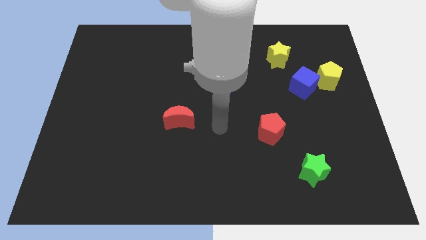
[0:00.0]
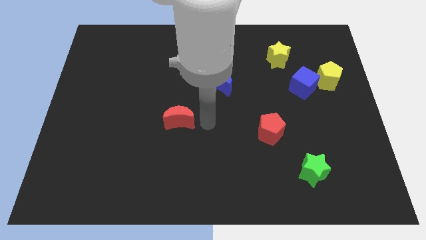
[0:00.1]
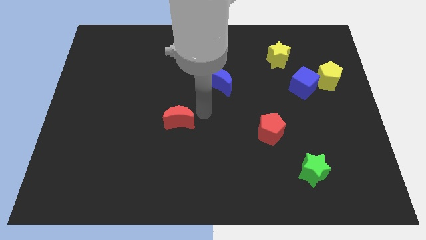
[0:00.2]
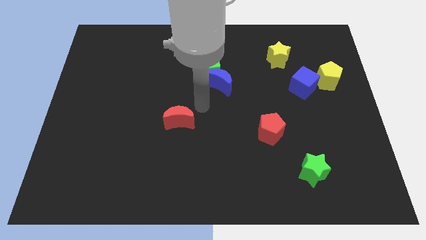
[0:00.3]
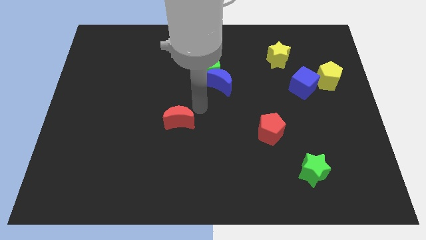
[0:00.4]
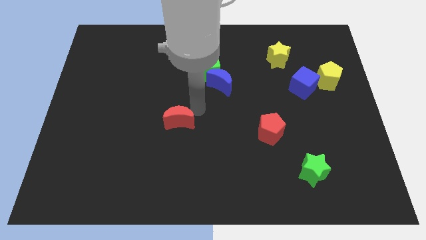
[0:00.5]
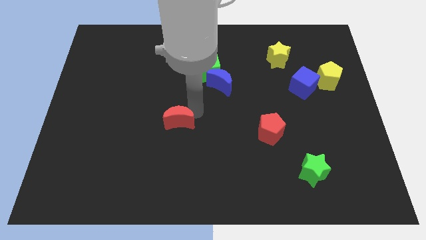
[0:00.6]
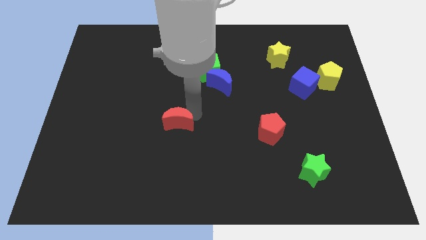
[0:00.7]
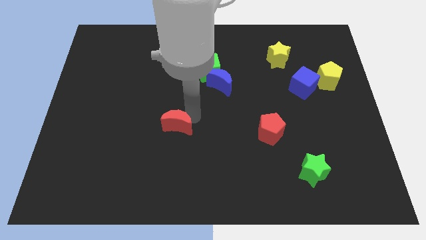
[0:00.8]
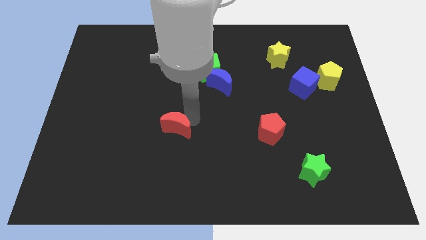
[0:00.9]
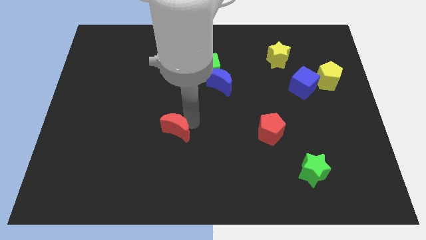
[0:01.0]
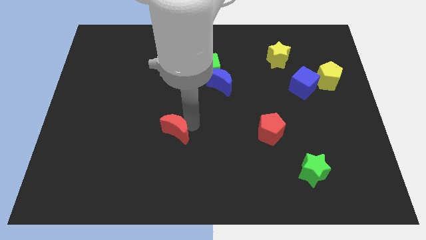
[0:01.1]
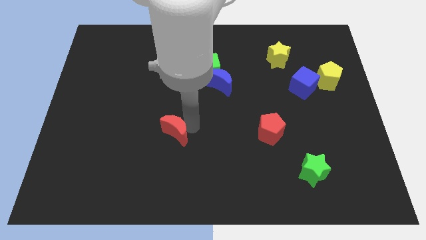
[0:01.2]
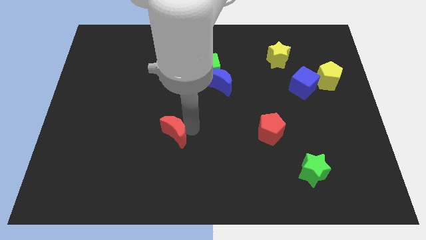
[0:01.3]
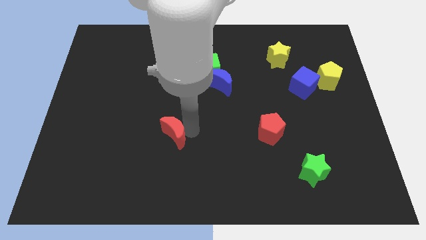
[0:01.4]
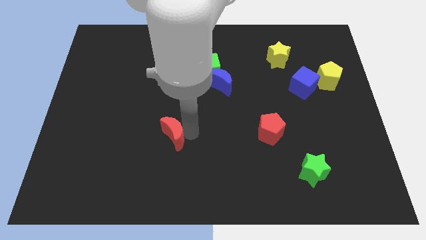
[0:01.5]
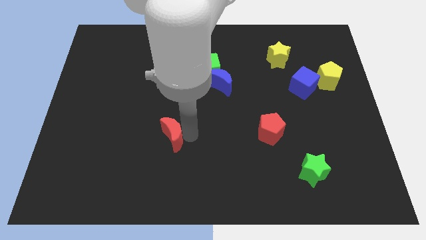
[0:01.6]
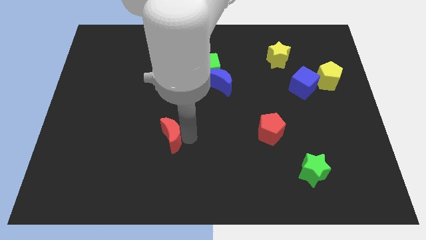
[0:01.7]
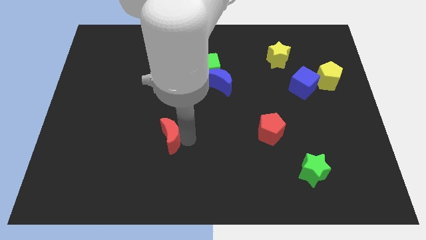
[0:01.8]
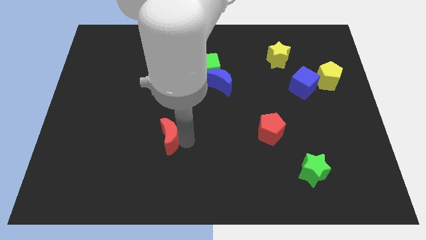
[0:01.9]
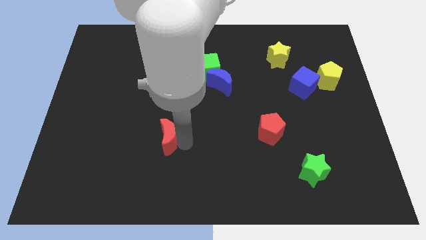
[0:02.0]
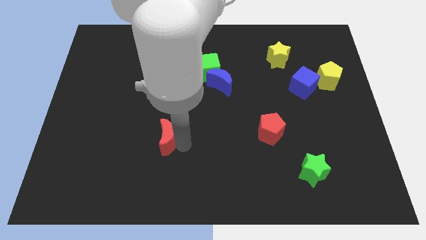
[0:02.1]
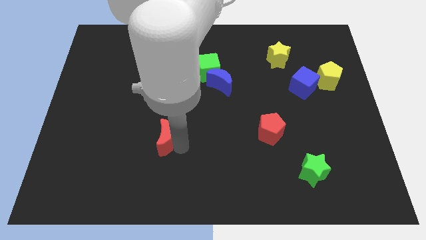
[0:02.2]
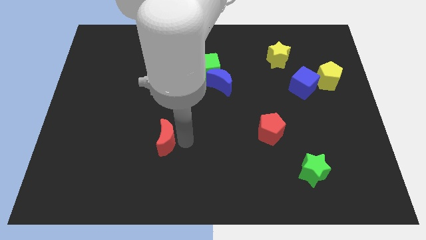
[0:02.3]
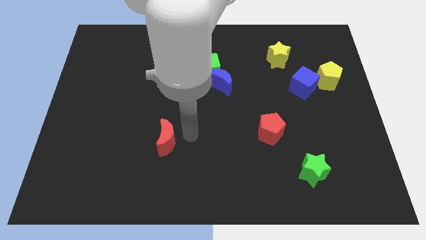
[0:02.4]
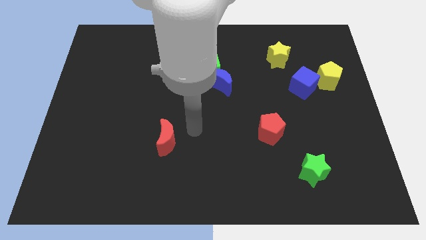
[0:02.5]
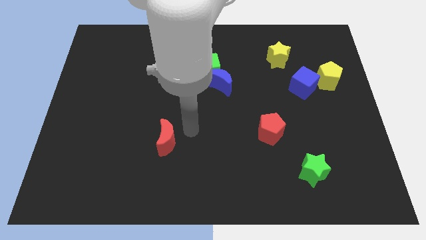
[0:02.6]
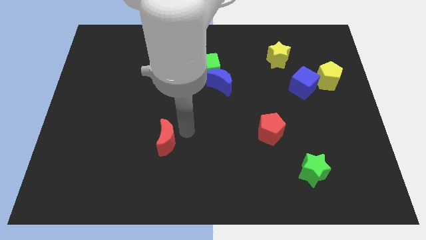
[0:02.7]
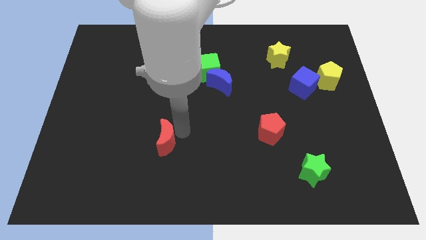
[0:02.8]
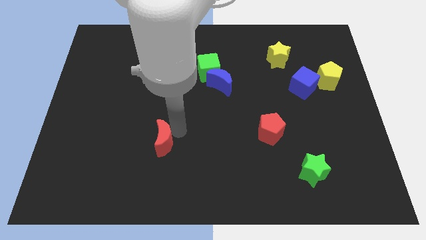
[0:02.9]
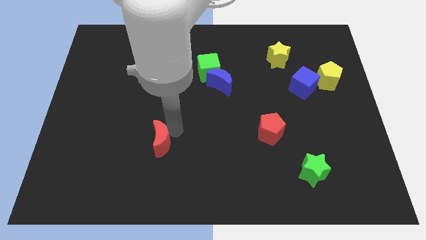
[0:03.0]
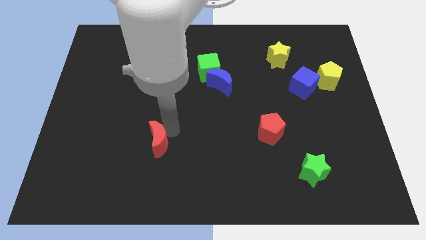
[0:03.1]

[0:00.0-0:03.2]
slide the red moon somewhat down and then left

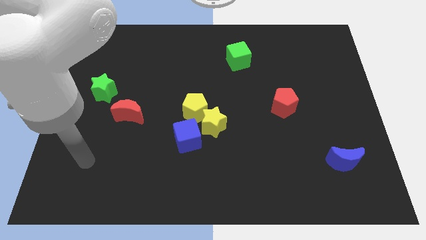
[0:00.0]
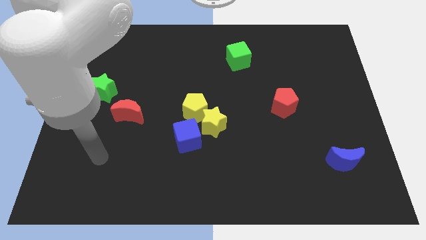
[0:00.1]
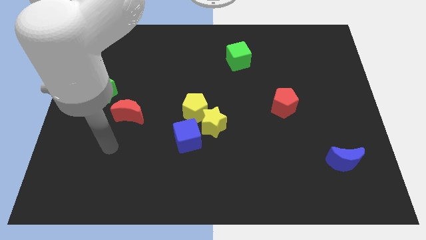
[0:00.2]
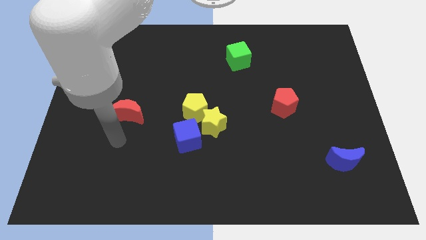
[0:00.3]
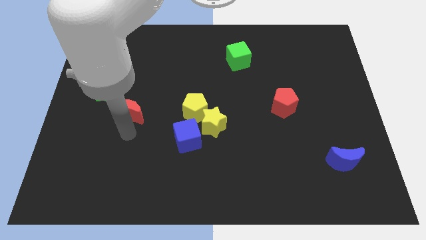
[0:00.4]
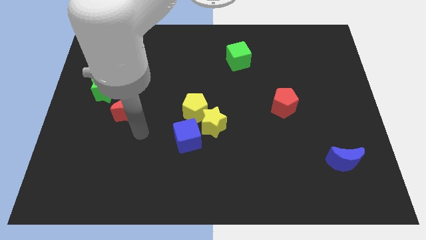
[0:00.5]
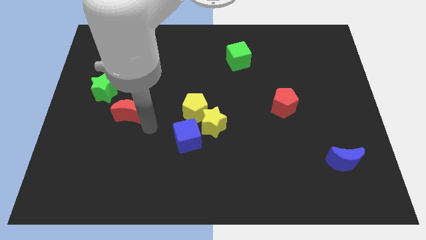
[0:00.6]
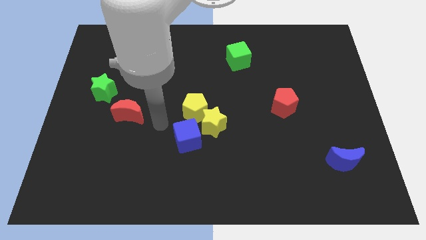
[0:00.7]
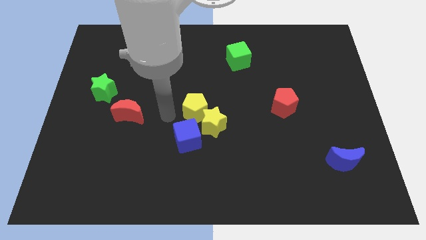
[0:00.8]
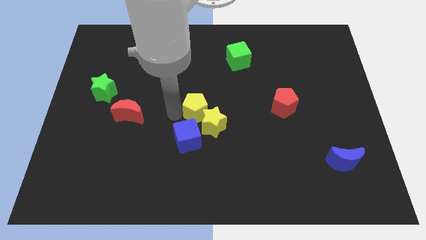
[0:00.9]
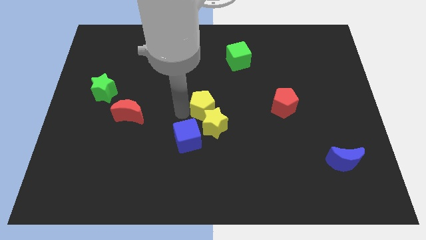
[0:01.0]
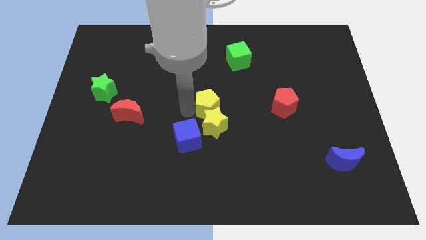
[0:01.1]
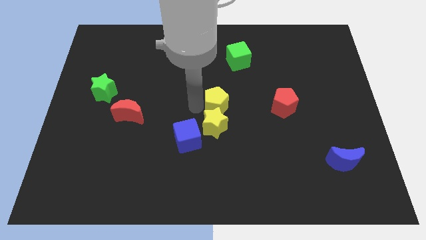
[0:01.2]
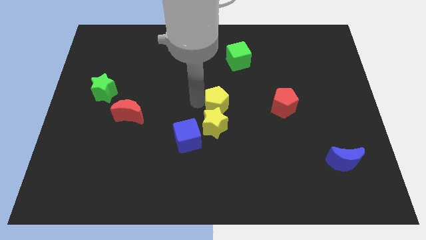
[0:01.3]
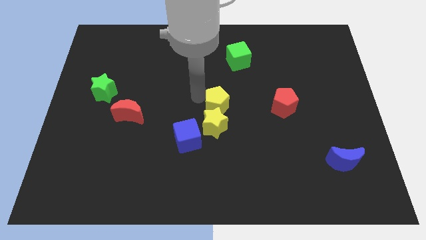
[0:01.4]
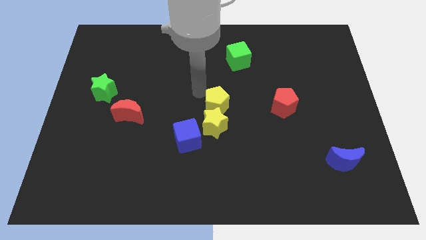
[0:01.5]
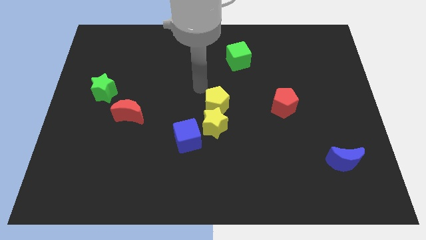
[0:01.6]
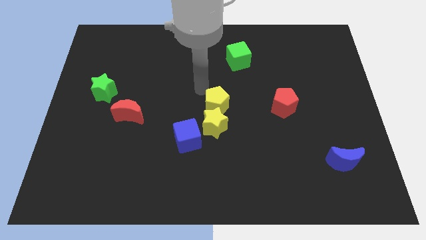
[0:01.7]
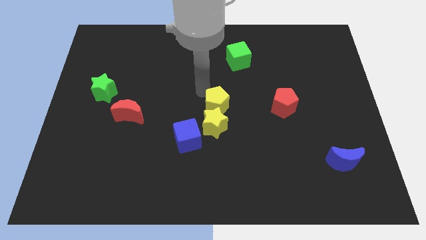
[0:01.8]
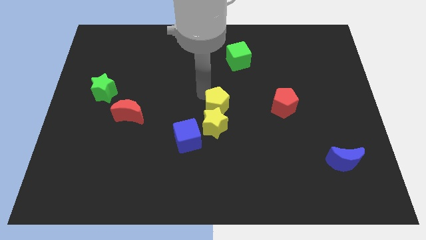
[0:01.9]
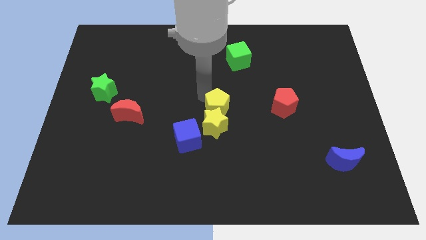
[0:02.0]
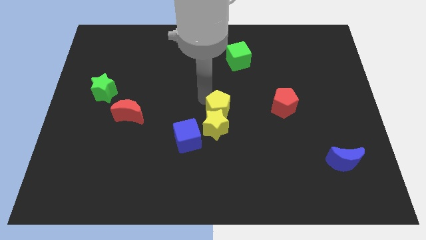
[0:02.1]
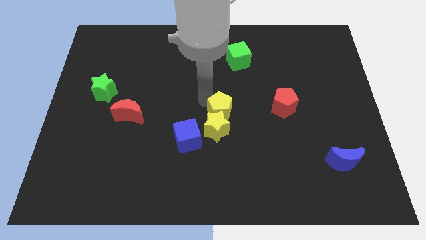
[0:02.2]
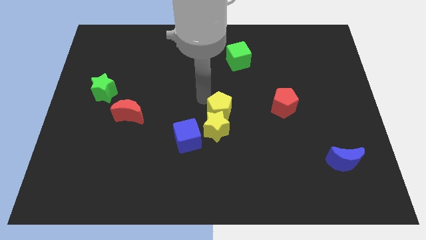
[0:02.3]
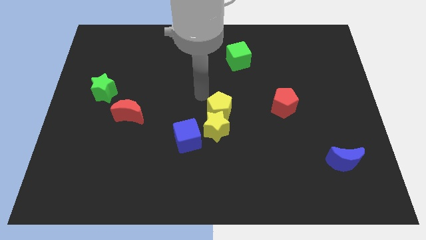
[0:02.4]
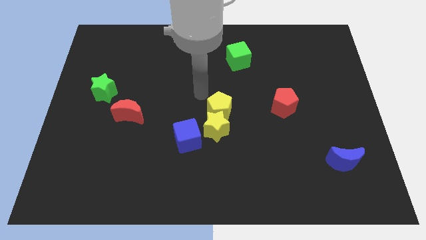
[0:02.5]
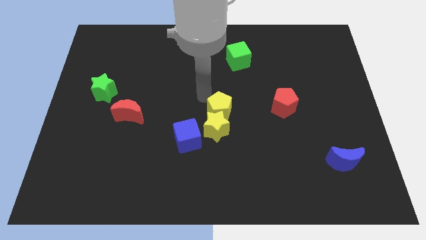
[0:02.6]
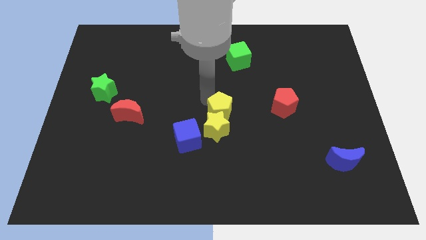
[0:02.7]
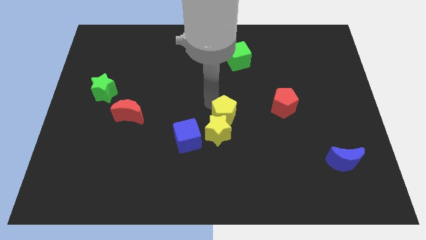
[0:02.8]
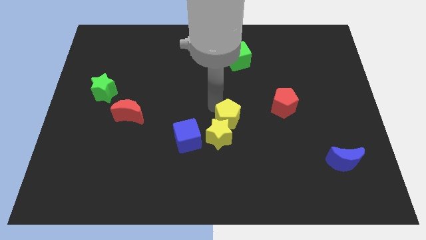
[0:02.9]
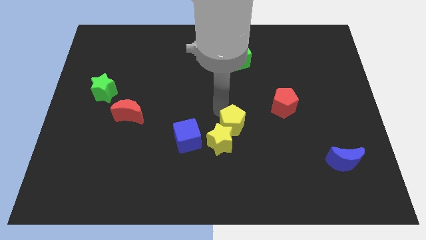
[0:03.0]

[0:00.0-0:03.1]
slide the yellow pentagon a little down and to the right

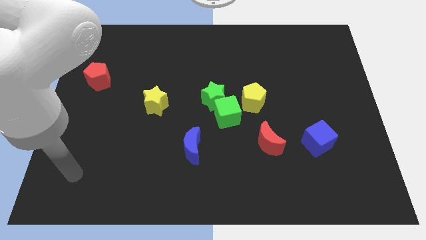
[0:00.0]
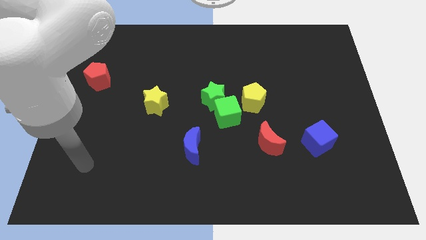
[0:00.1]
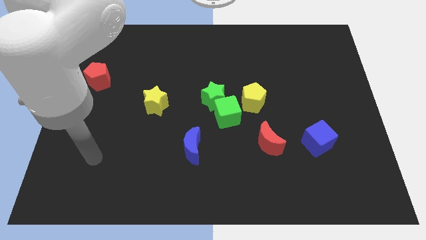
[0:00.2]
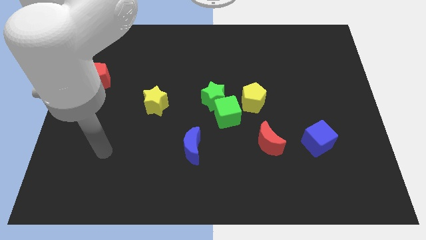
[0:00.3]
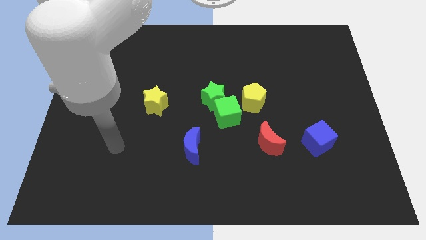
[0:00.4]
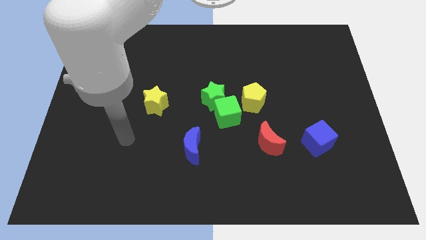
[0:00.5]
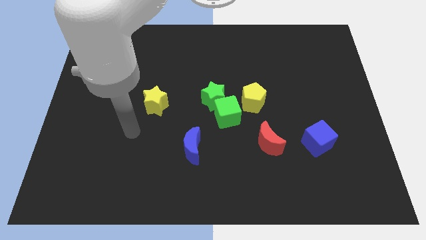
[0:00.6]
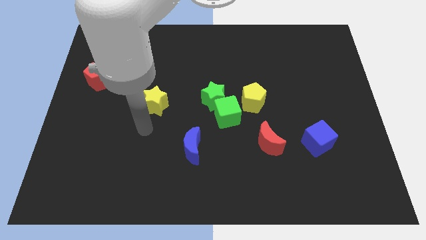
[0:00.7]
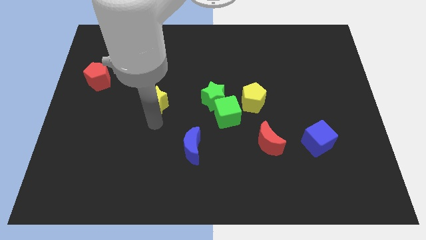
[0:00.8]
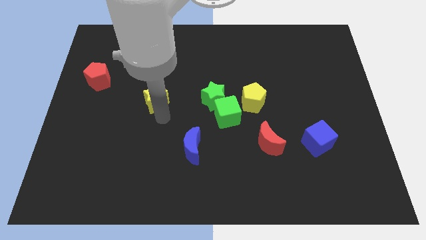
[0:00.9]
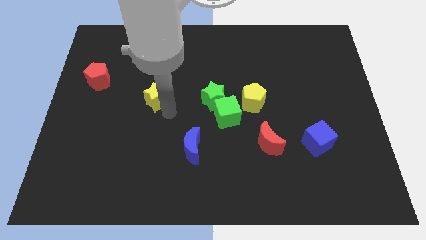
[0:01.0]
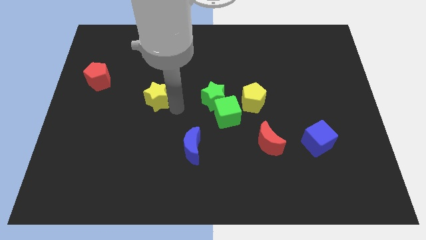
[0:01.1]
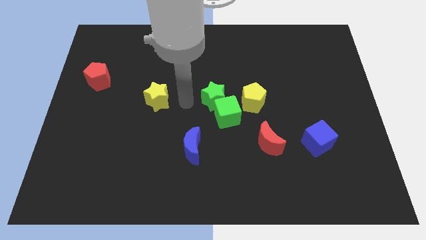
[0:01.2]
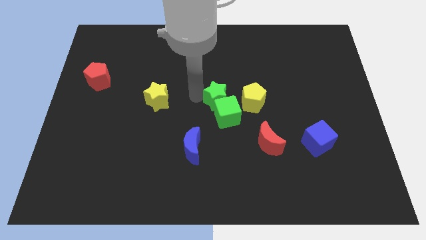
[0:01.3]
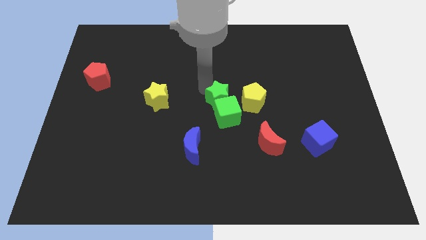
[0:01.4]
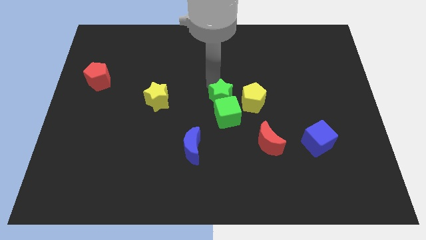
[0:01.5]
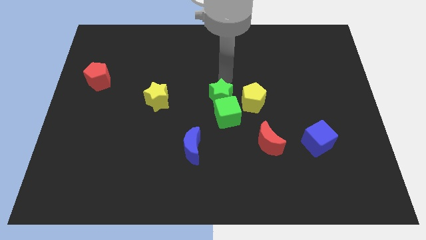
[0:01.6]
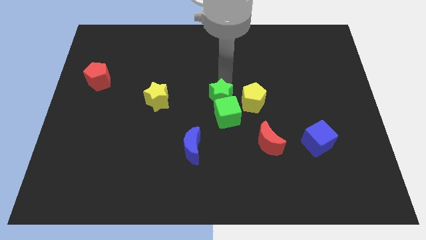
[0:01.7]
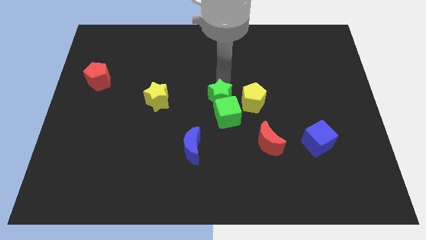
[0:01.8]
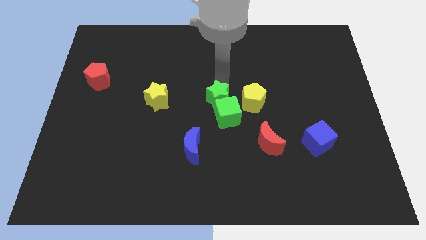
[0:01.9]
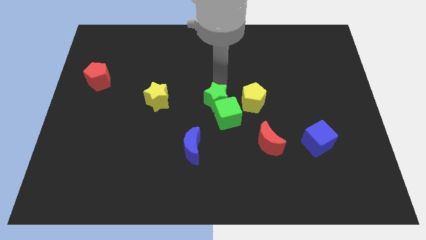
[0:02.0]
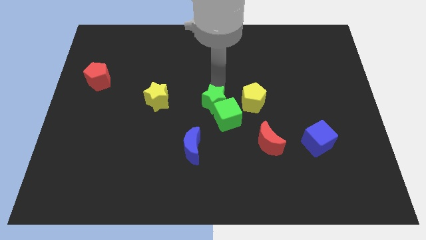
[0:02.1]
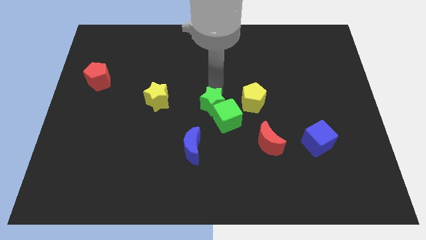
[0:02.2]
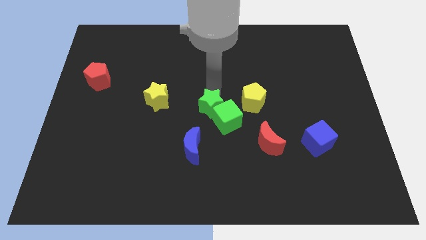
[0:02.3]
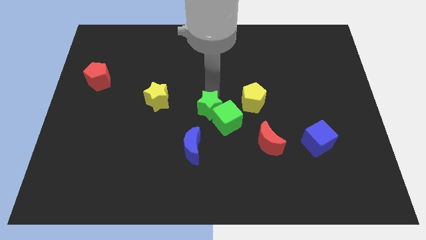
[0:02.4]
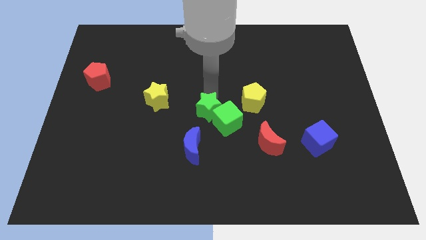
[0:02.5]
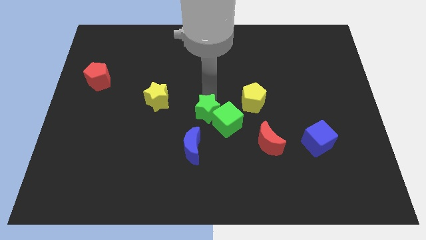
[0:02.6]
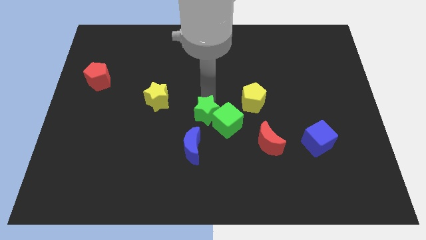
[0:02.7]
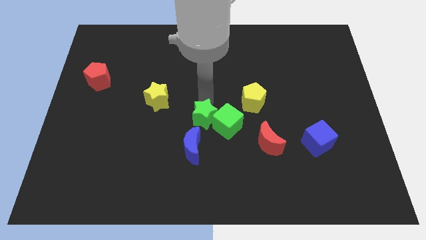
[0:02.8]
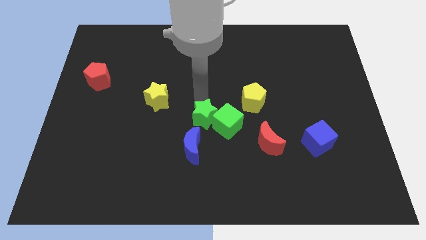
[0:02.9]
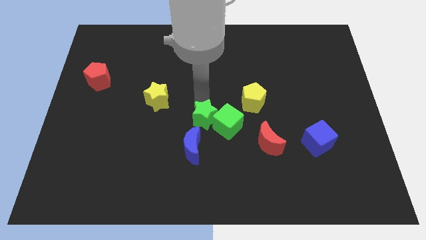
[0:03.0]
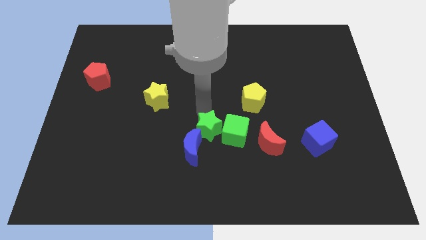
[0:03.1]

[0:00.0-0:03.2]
move the green star a little bit down
